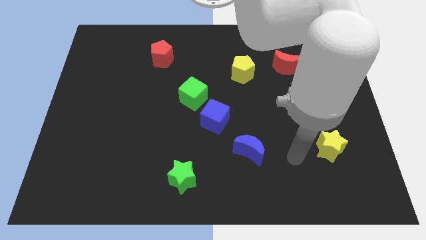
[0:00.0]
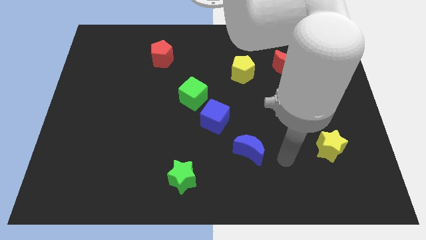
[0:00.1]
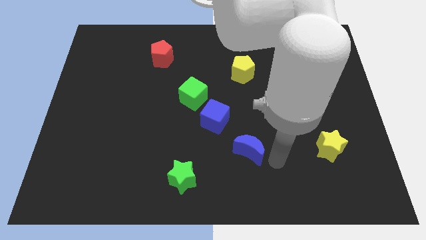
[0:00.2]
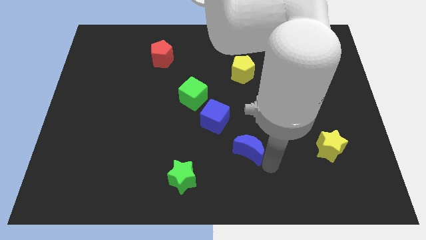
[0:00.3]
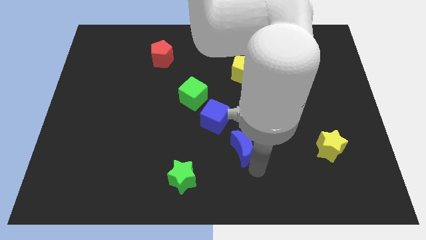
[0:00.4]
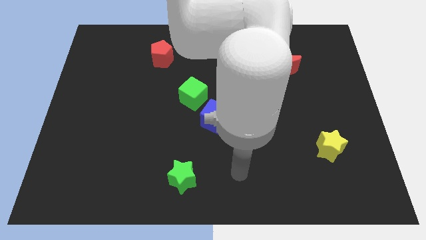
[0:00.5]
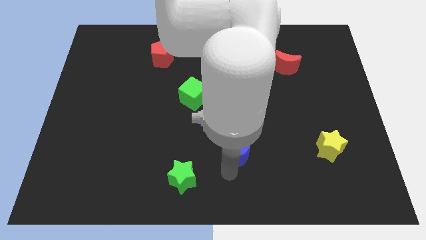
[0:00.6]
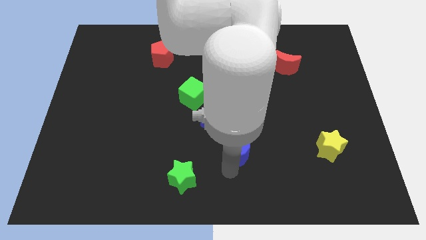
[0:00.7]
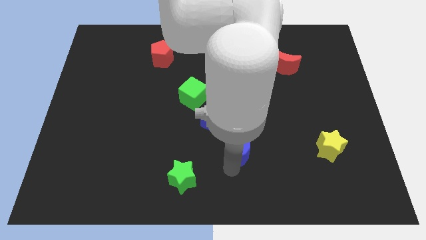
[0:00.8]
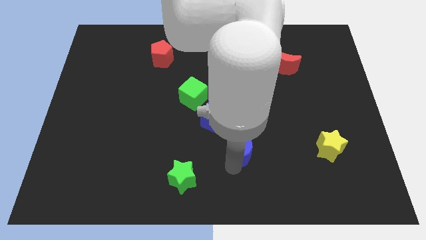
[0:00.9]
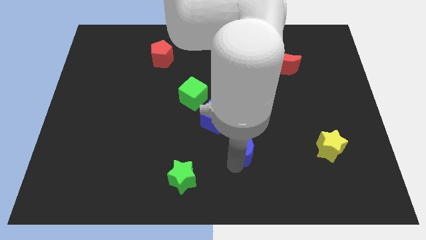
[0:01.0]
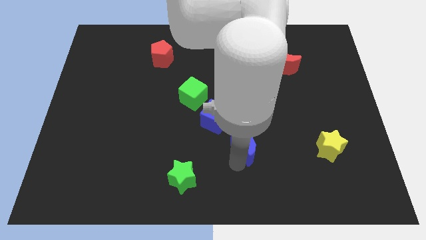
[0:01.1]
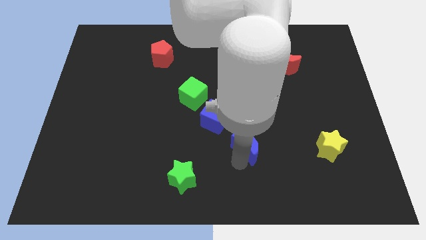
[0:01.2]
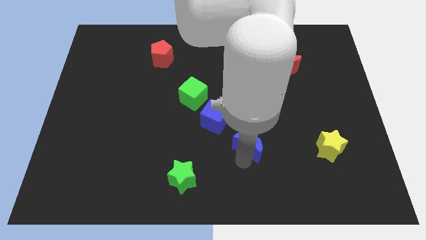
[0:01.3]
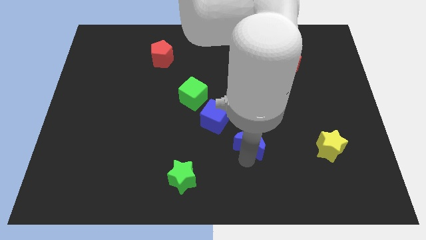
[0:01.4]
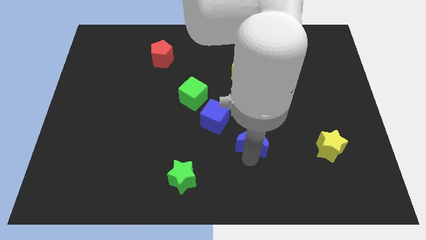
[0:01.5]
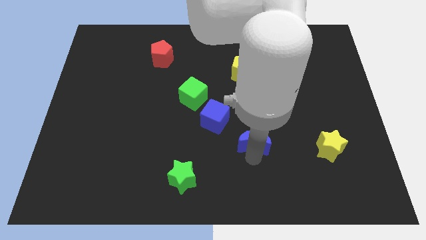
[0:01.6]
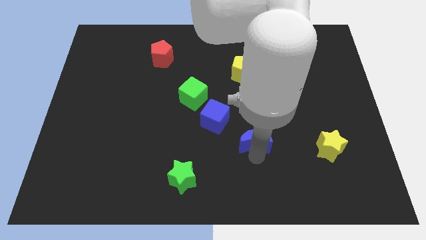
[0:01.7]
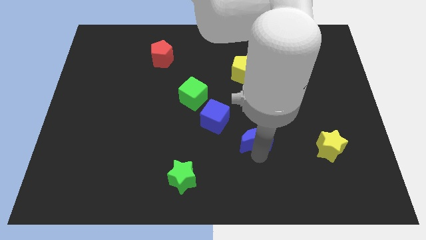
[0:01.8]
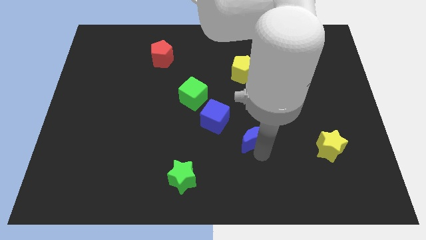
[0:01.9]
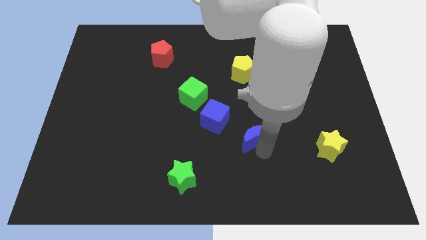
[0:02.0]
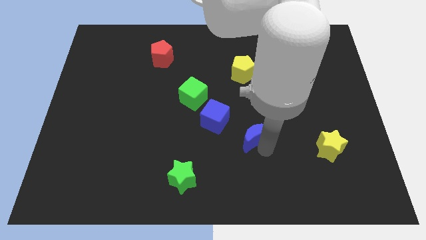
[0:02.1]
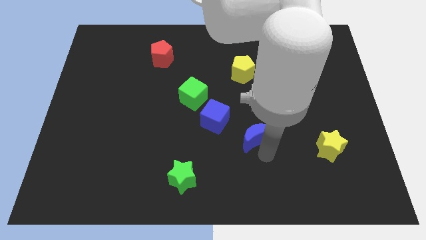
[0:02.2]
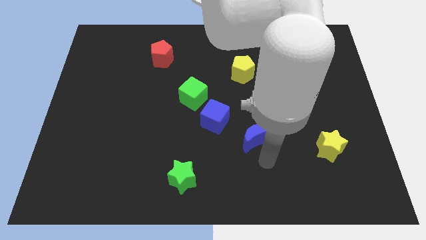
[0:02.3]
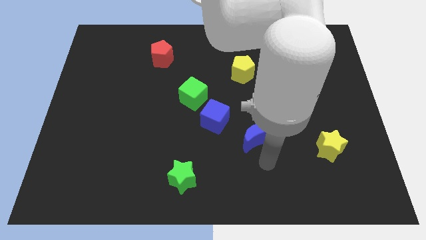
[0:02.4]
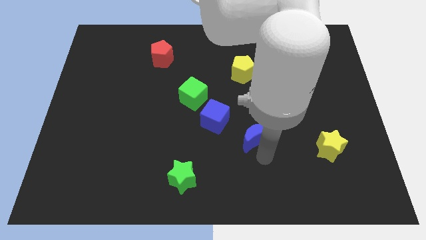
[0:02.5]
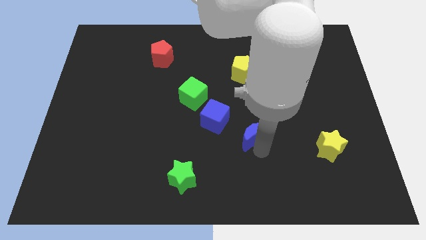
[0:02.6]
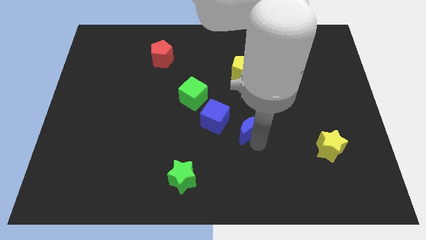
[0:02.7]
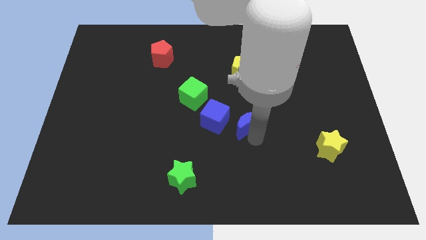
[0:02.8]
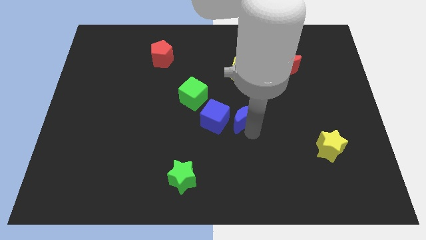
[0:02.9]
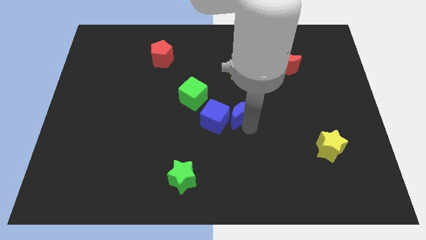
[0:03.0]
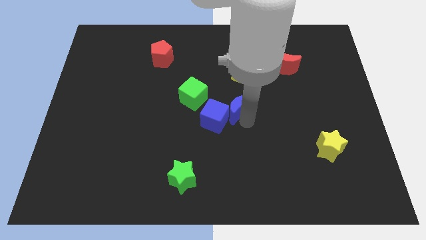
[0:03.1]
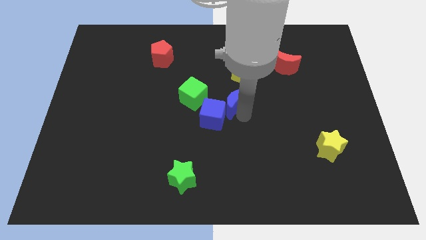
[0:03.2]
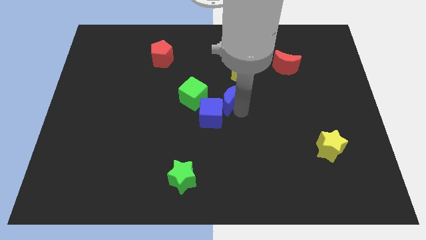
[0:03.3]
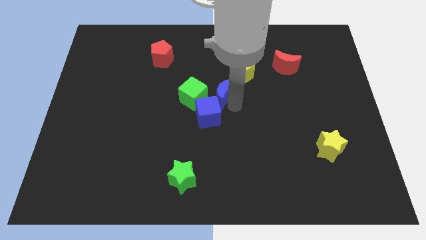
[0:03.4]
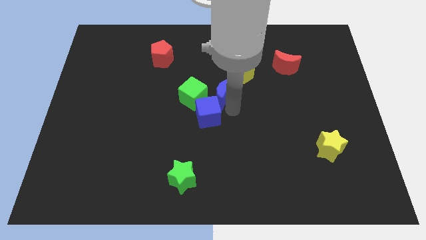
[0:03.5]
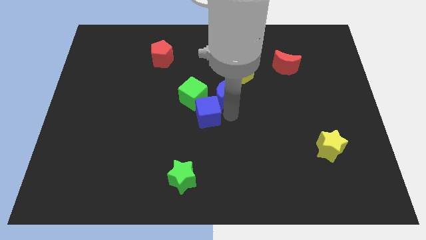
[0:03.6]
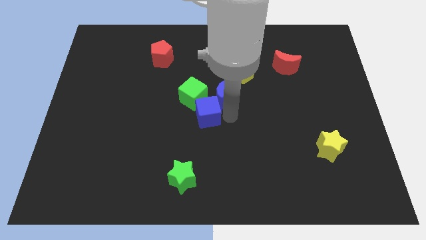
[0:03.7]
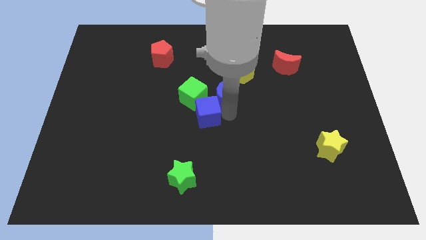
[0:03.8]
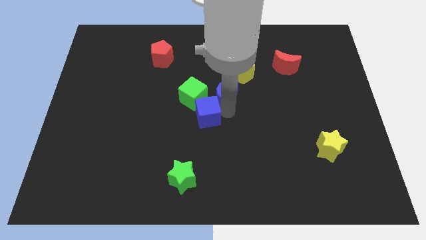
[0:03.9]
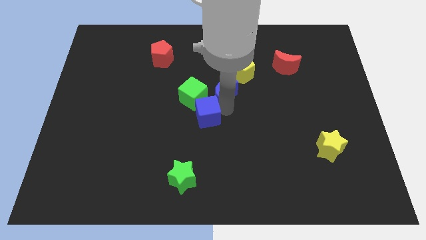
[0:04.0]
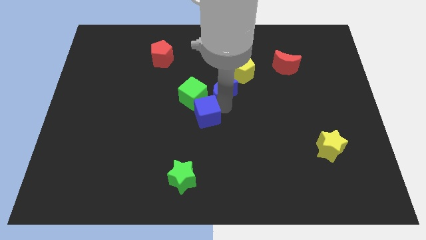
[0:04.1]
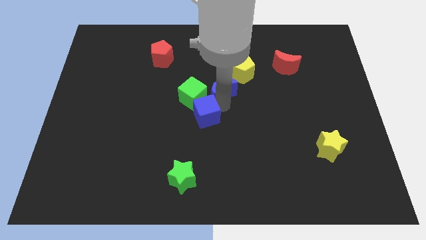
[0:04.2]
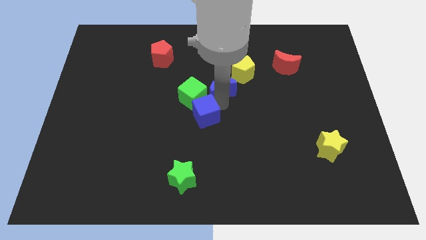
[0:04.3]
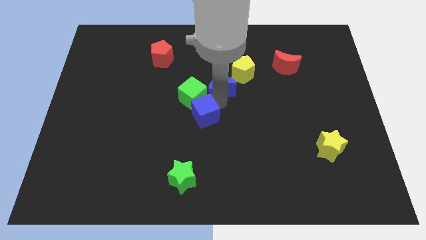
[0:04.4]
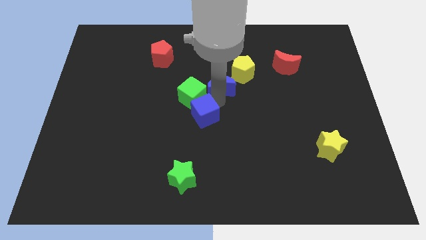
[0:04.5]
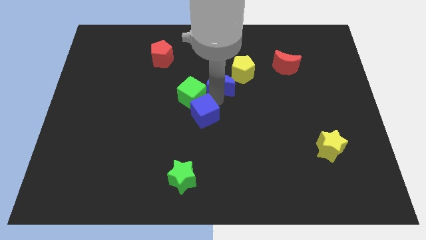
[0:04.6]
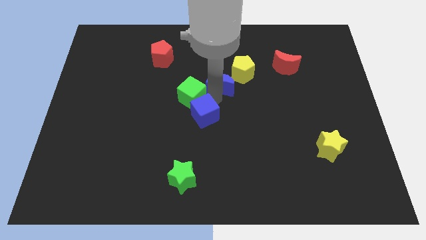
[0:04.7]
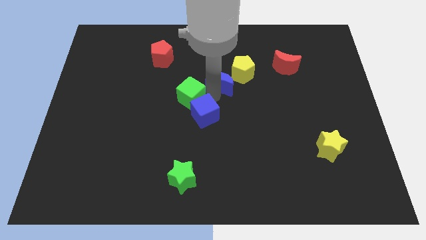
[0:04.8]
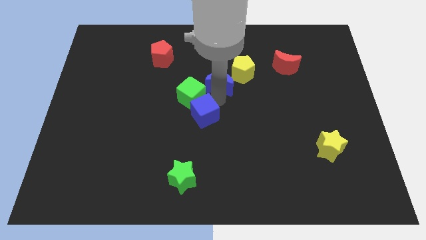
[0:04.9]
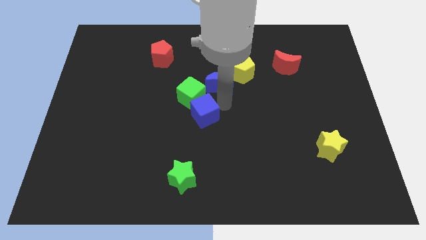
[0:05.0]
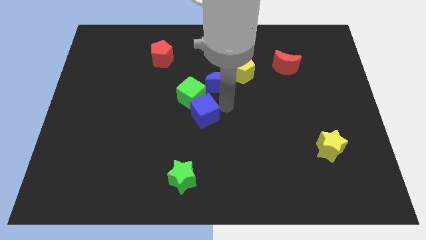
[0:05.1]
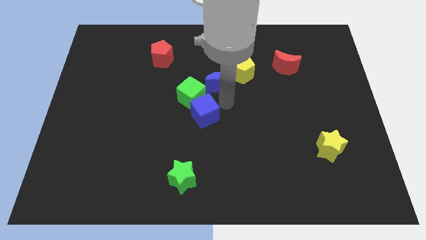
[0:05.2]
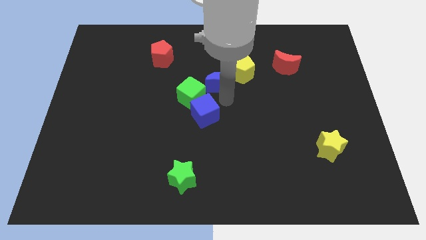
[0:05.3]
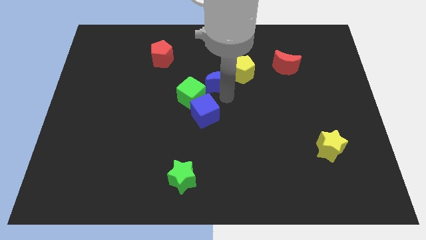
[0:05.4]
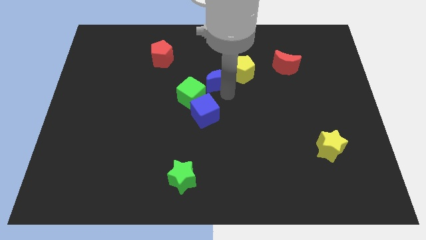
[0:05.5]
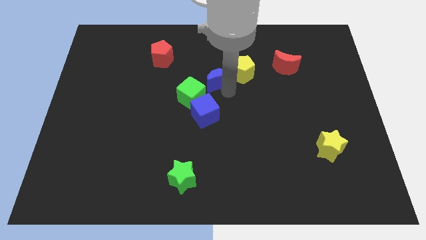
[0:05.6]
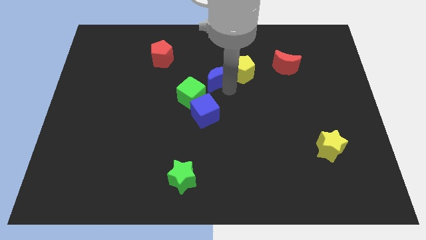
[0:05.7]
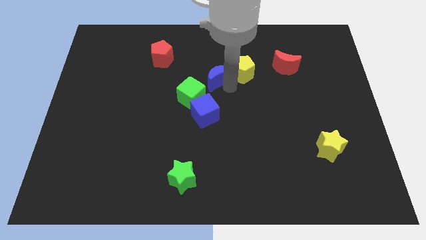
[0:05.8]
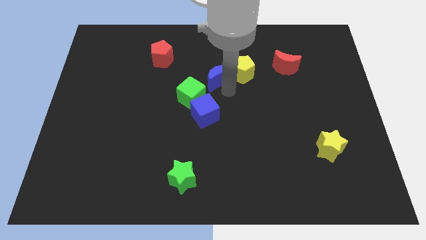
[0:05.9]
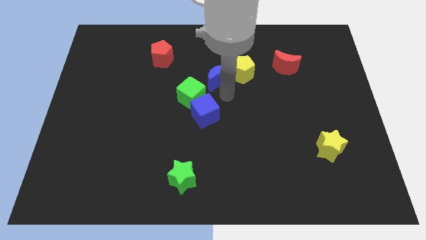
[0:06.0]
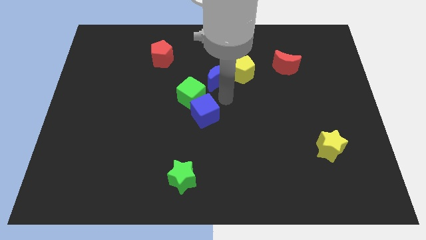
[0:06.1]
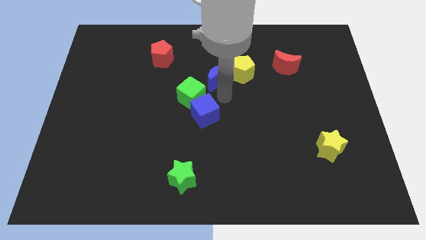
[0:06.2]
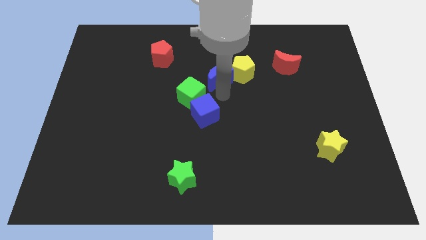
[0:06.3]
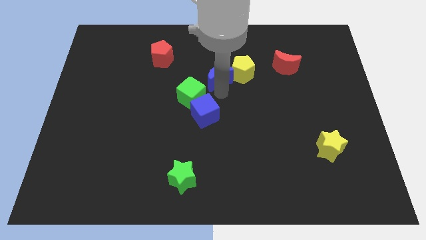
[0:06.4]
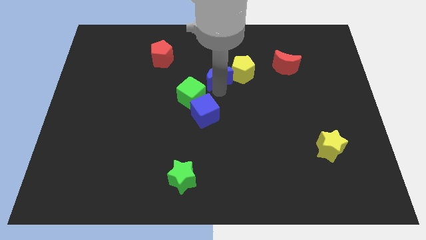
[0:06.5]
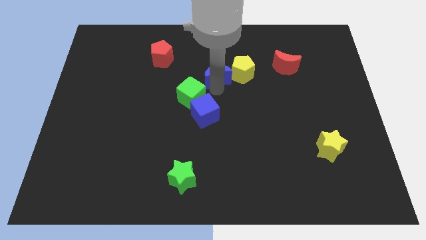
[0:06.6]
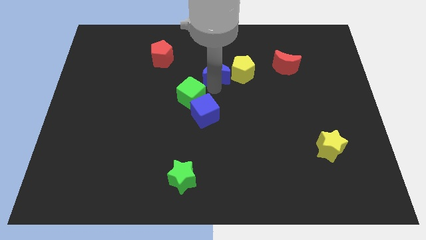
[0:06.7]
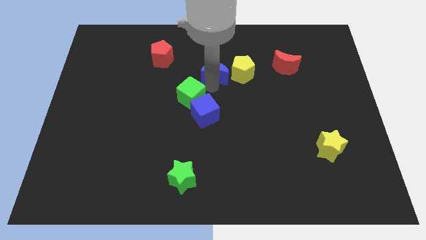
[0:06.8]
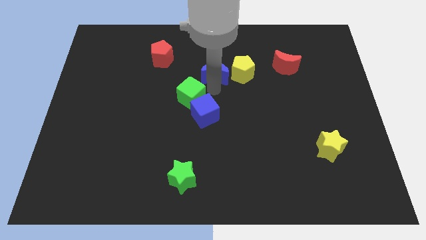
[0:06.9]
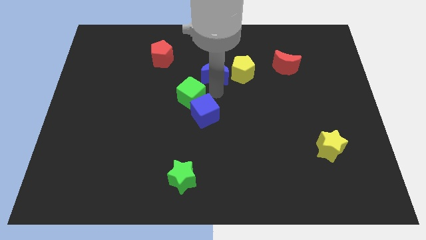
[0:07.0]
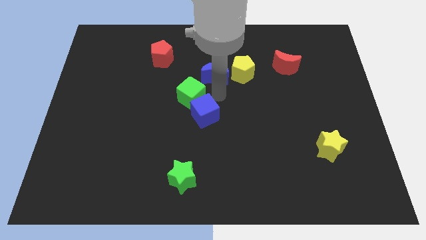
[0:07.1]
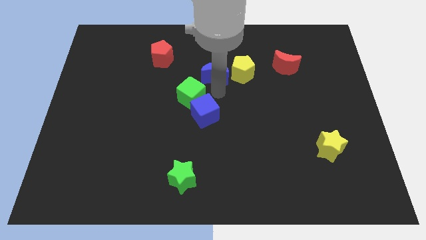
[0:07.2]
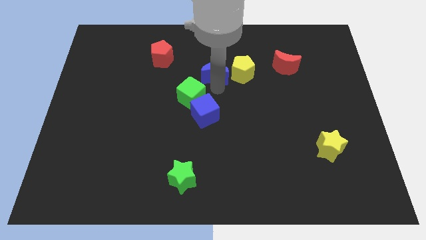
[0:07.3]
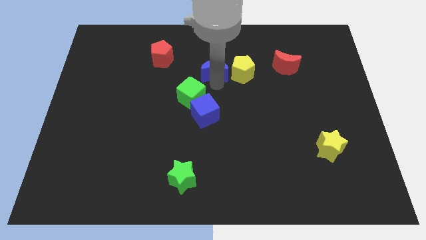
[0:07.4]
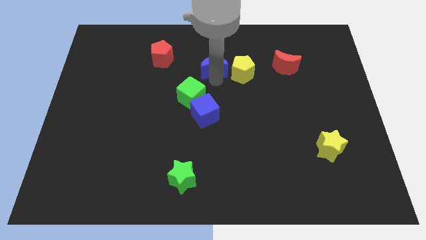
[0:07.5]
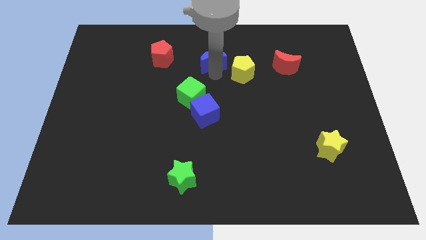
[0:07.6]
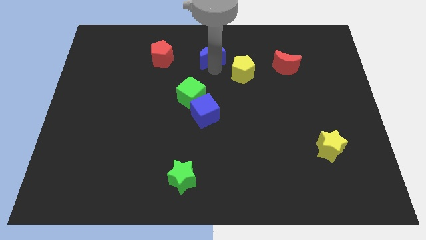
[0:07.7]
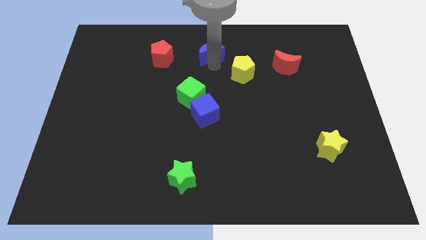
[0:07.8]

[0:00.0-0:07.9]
move the blue moon to the top side
